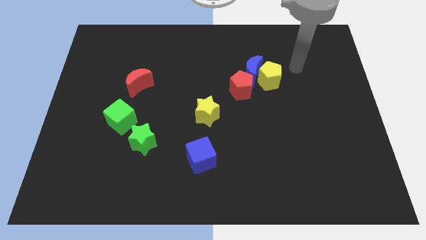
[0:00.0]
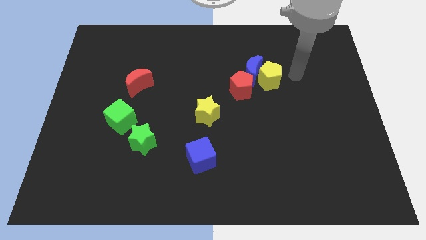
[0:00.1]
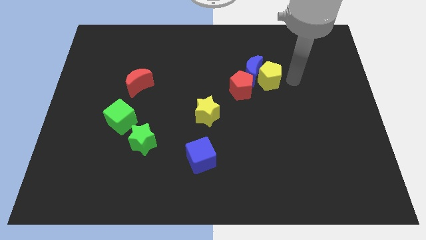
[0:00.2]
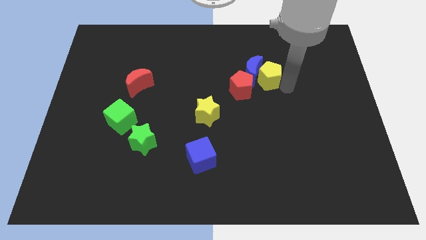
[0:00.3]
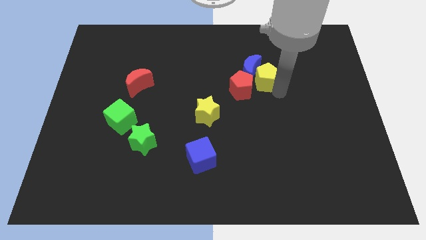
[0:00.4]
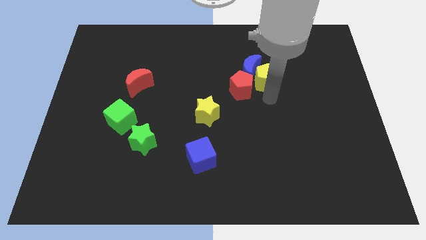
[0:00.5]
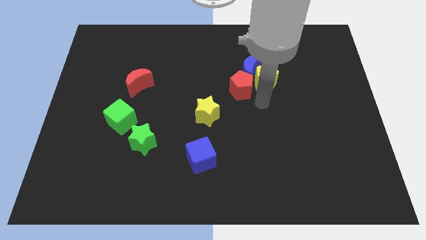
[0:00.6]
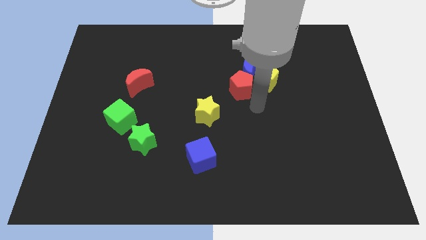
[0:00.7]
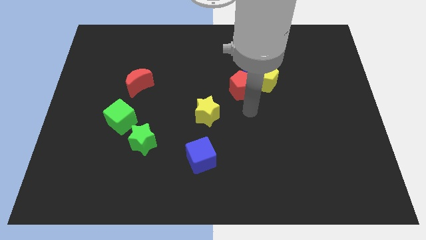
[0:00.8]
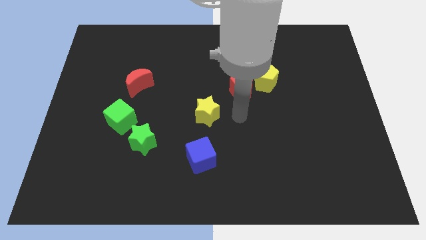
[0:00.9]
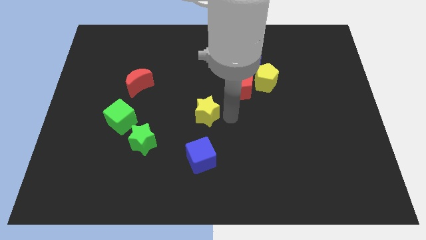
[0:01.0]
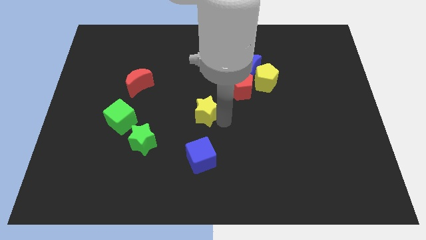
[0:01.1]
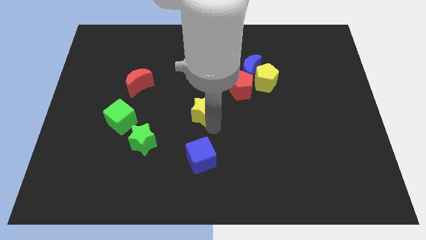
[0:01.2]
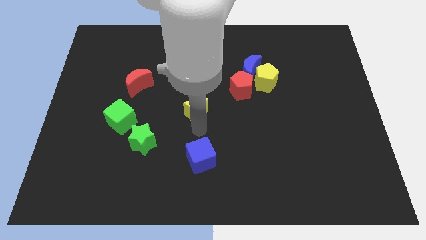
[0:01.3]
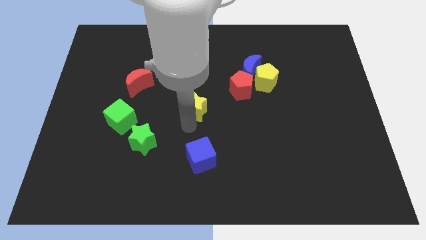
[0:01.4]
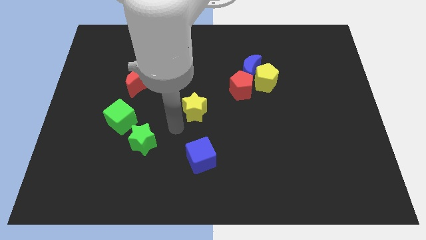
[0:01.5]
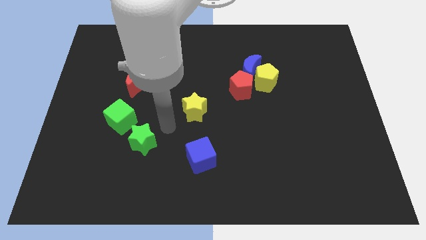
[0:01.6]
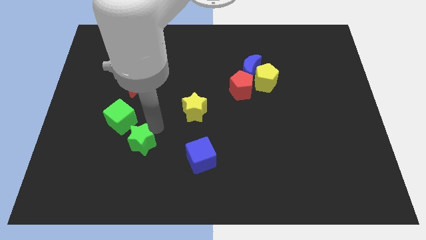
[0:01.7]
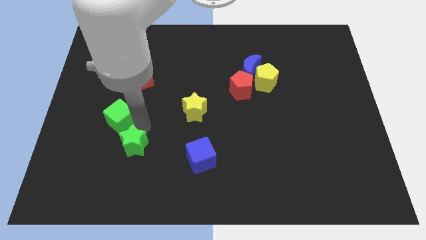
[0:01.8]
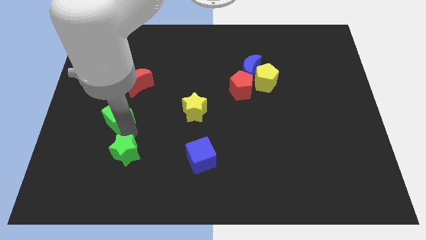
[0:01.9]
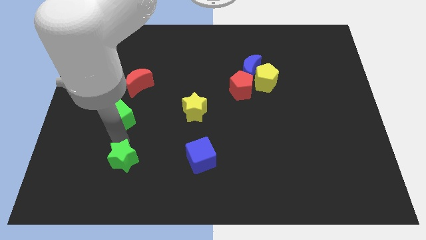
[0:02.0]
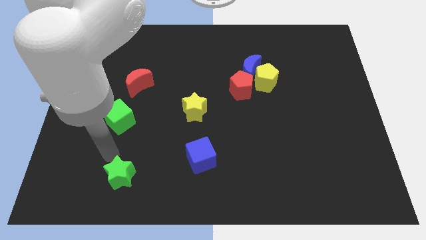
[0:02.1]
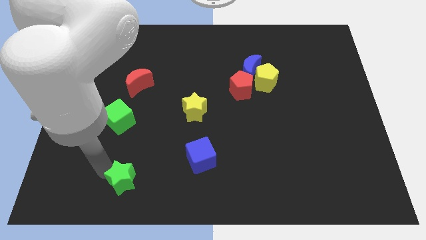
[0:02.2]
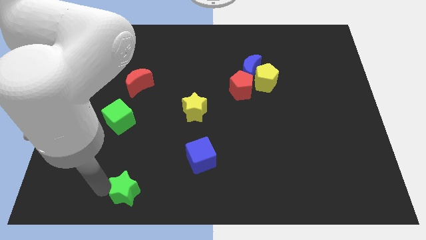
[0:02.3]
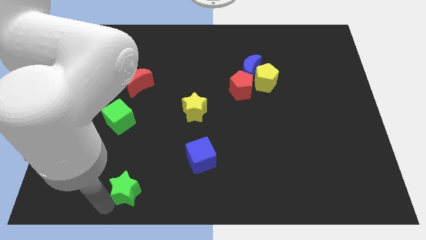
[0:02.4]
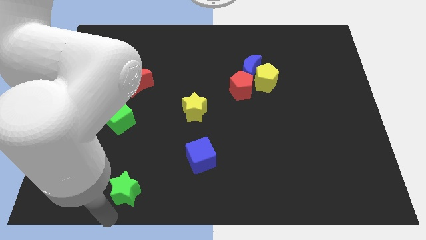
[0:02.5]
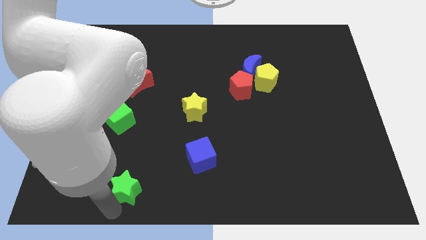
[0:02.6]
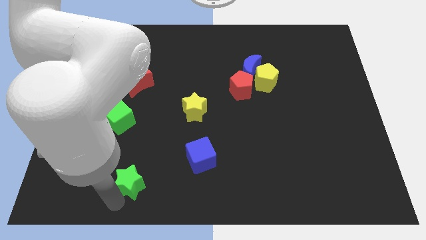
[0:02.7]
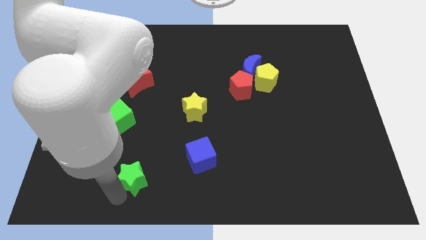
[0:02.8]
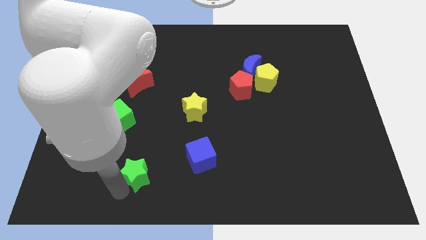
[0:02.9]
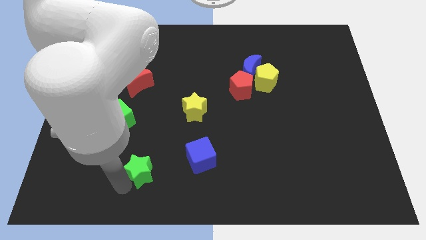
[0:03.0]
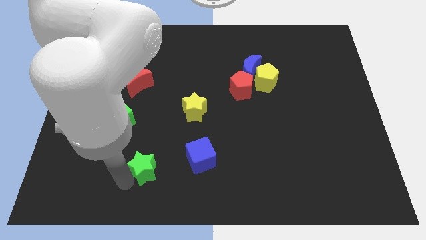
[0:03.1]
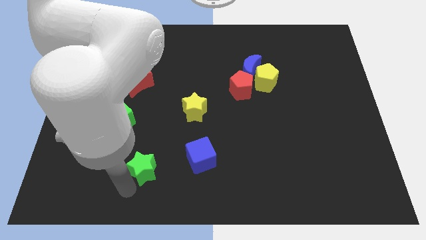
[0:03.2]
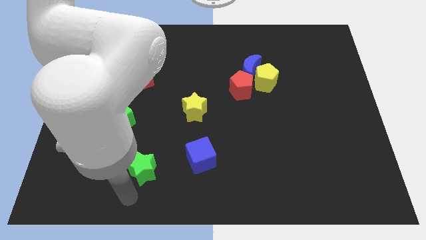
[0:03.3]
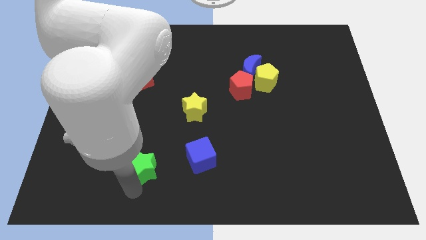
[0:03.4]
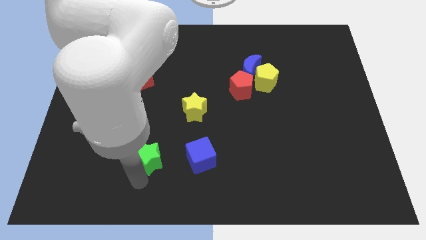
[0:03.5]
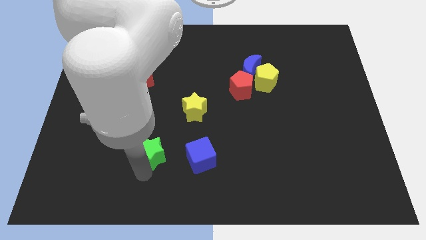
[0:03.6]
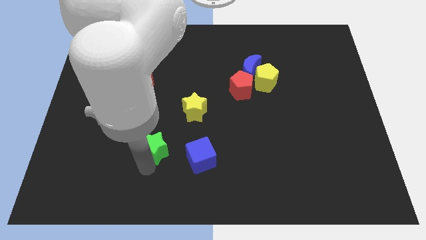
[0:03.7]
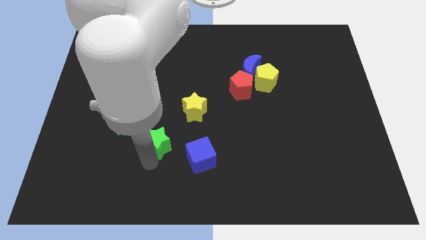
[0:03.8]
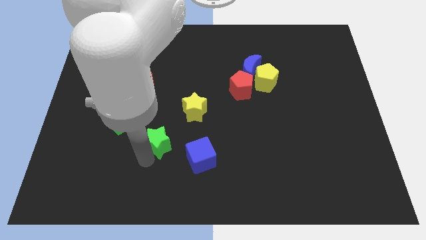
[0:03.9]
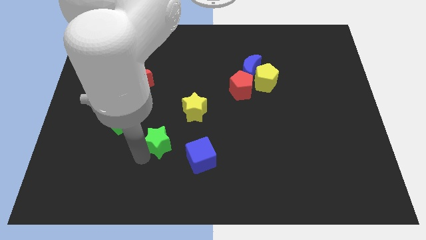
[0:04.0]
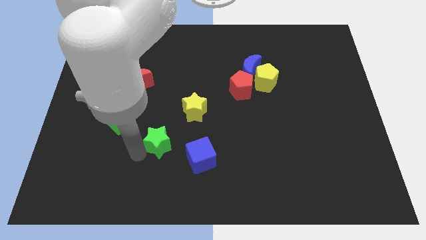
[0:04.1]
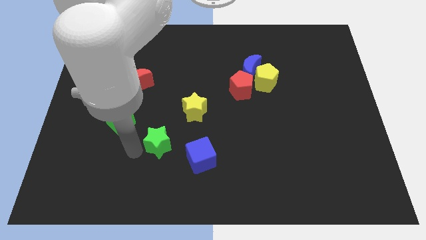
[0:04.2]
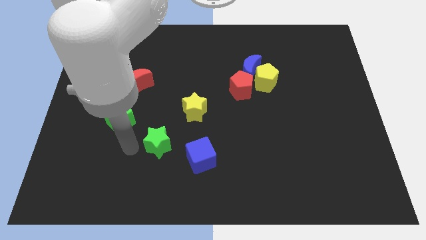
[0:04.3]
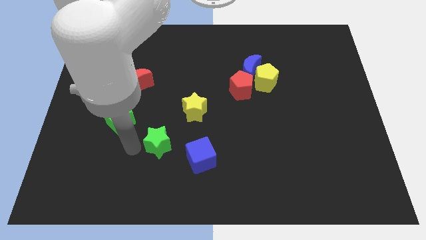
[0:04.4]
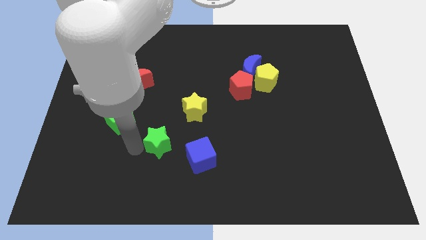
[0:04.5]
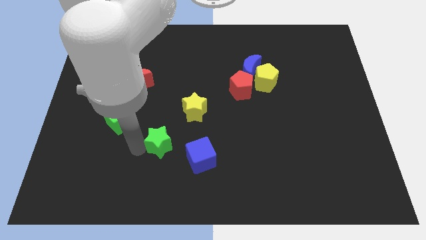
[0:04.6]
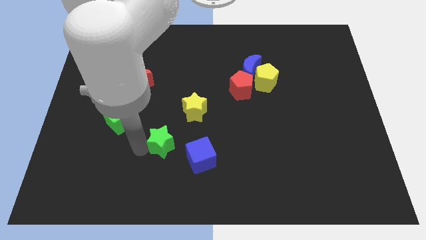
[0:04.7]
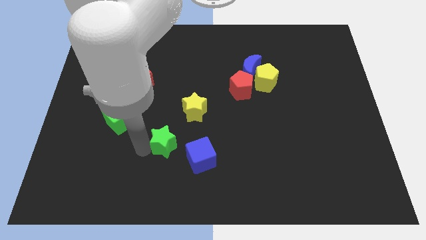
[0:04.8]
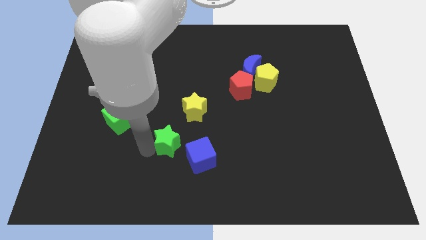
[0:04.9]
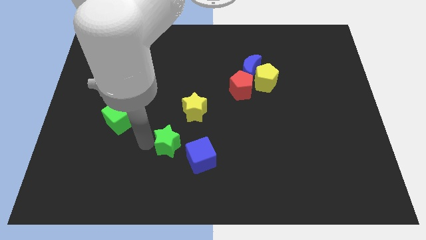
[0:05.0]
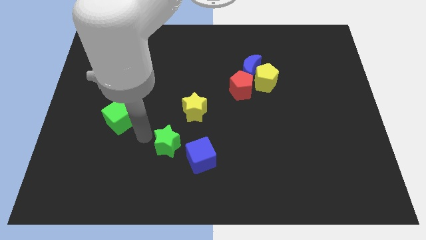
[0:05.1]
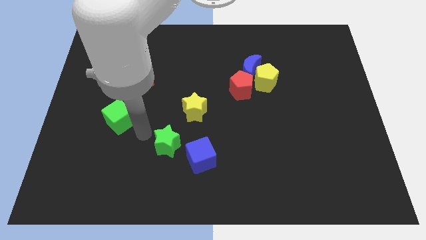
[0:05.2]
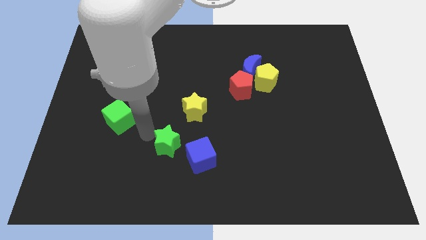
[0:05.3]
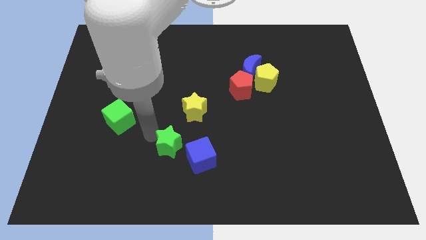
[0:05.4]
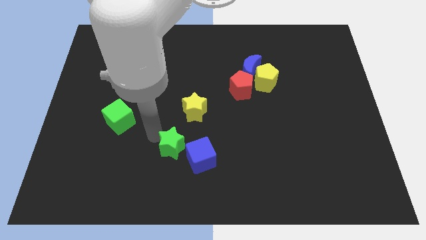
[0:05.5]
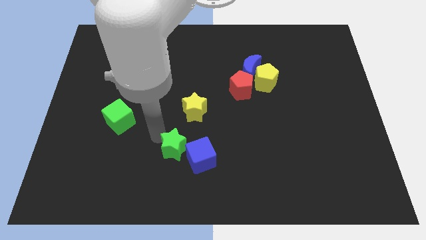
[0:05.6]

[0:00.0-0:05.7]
slide the green star close to the blue cube
